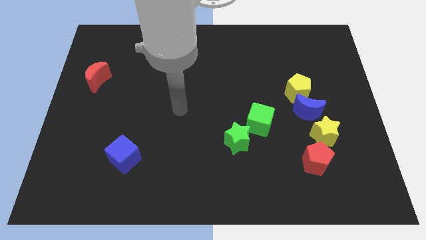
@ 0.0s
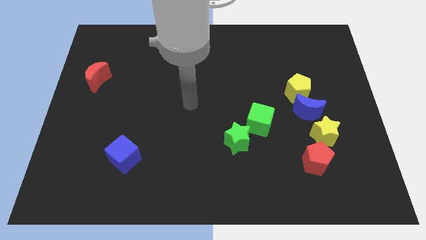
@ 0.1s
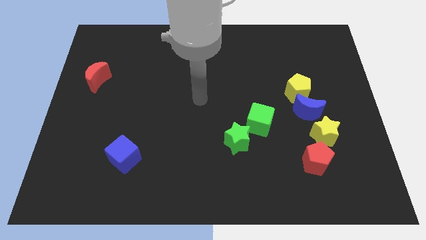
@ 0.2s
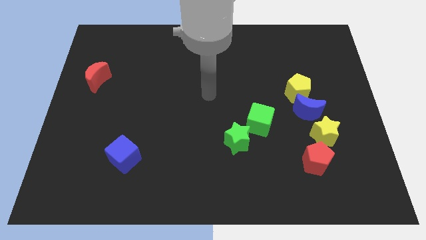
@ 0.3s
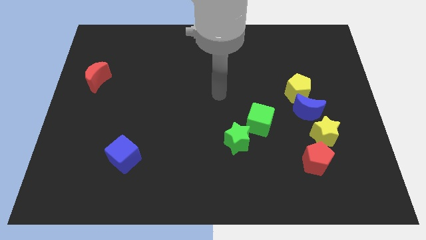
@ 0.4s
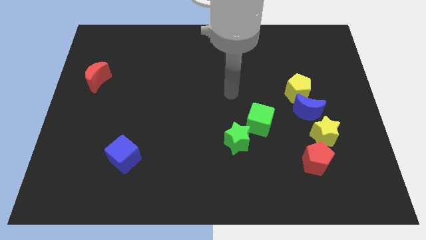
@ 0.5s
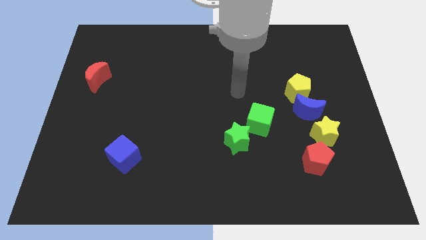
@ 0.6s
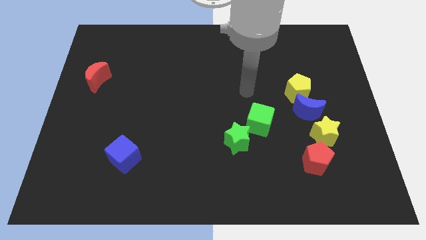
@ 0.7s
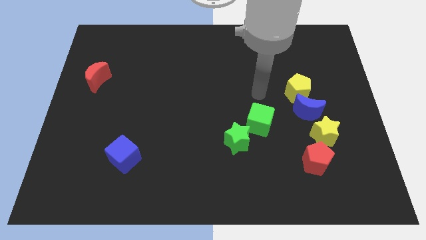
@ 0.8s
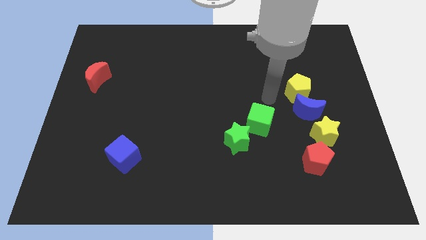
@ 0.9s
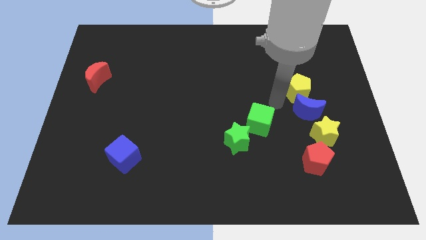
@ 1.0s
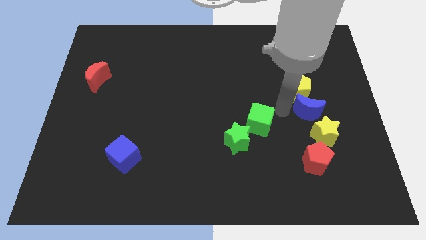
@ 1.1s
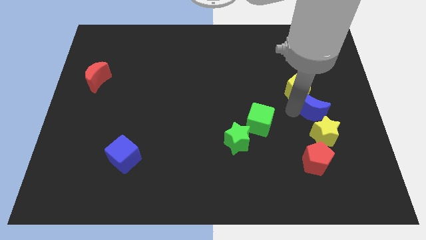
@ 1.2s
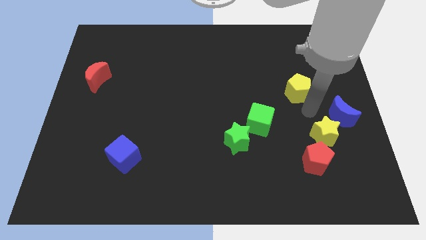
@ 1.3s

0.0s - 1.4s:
pull the yellow pentagon apart from the blue moon

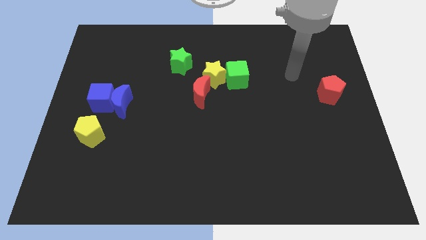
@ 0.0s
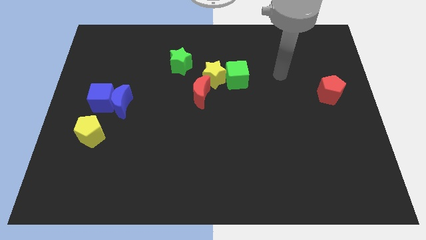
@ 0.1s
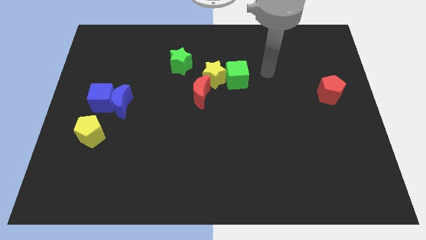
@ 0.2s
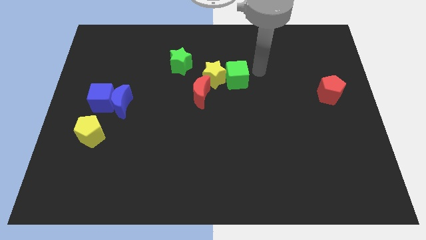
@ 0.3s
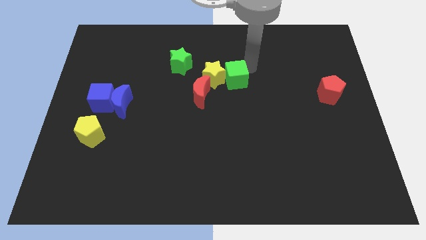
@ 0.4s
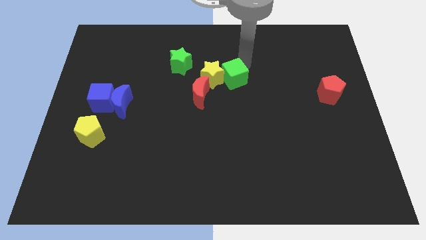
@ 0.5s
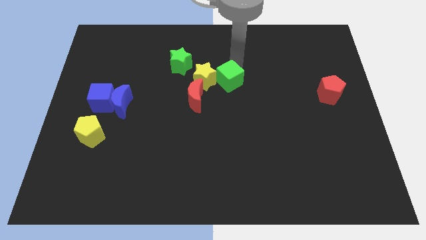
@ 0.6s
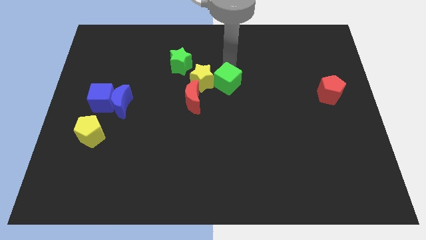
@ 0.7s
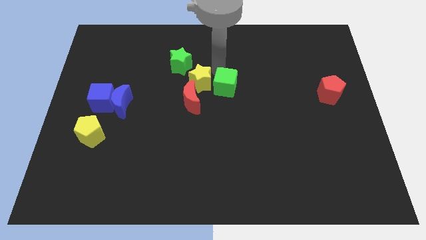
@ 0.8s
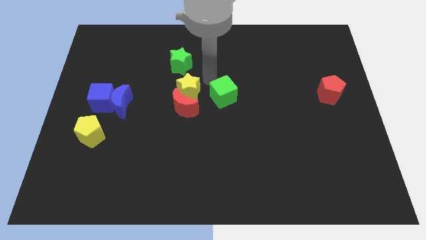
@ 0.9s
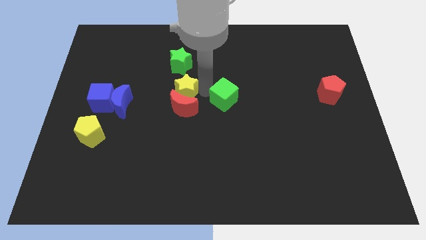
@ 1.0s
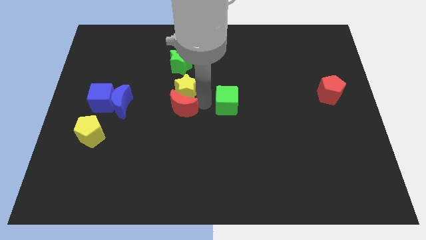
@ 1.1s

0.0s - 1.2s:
pull the green cube apart from the yellow star

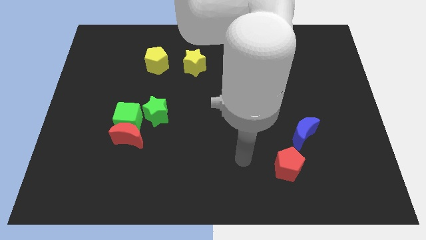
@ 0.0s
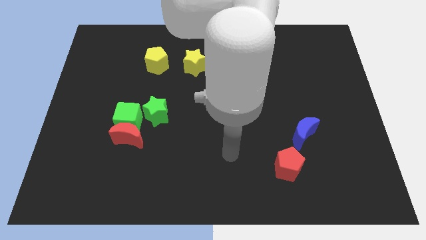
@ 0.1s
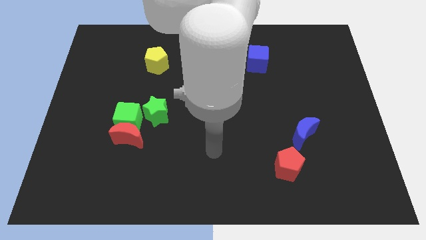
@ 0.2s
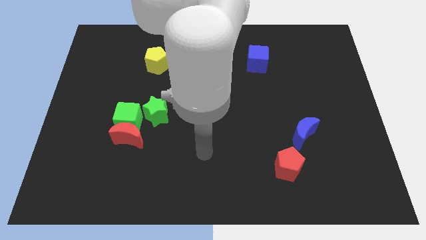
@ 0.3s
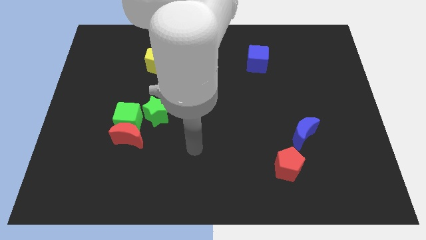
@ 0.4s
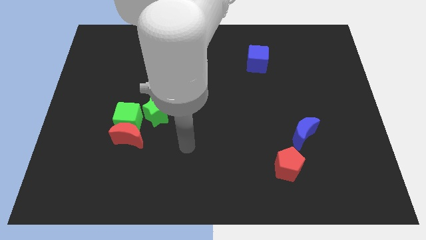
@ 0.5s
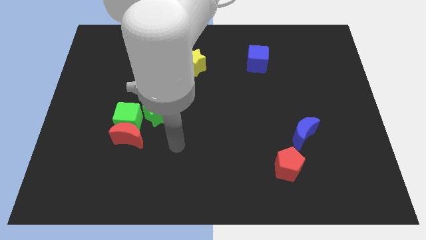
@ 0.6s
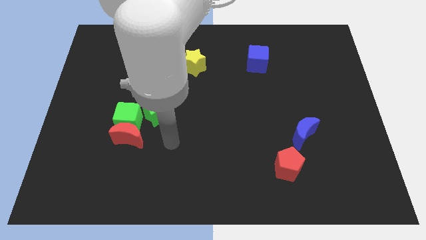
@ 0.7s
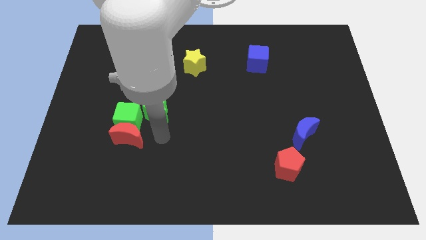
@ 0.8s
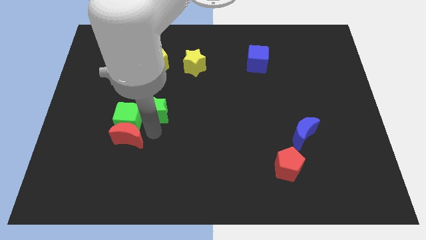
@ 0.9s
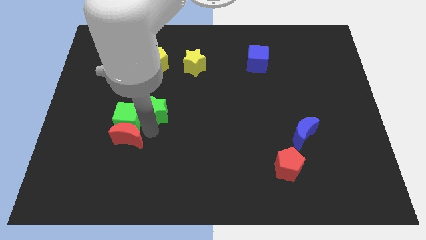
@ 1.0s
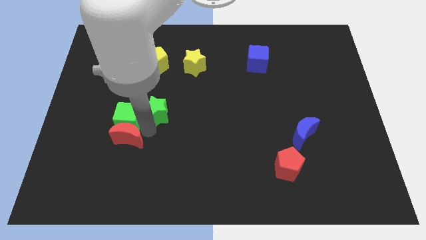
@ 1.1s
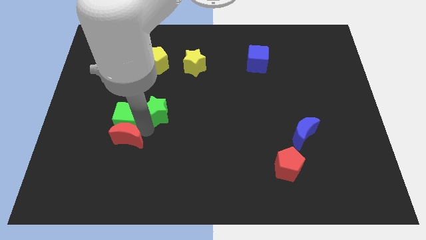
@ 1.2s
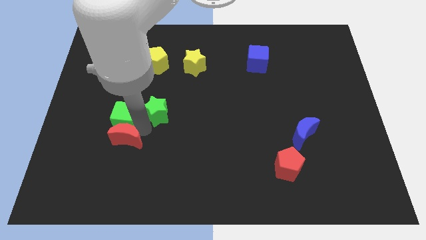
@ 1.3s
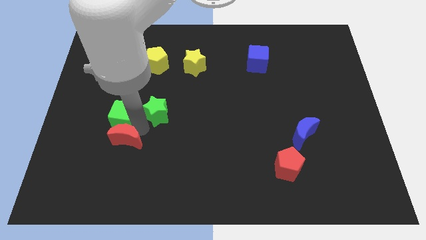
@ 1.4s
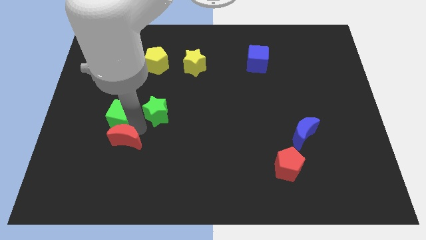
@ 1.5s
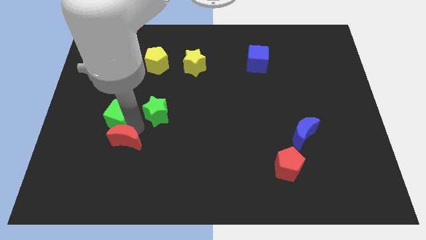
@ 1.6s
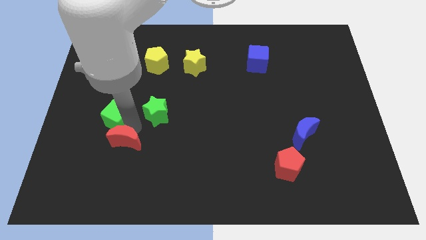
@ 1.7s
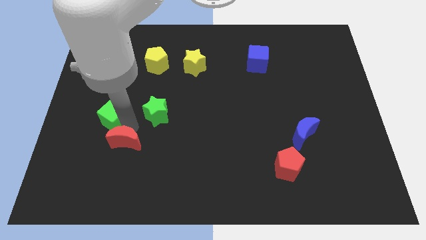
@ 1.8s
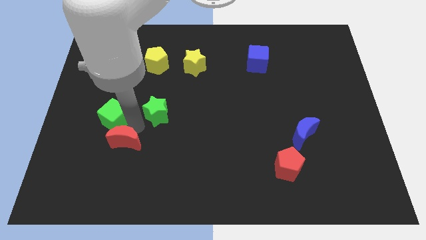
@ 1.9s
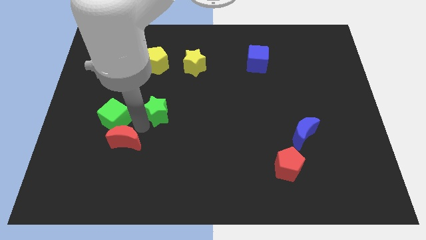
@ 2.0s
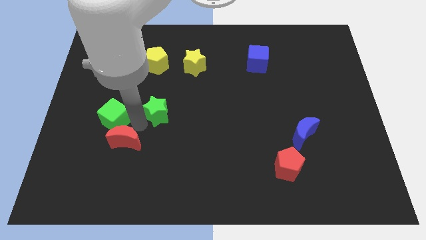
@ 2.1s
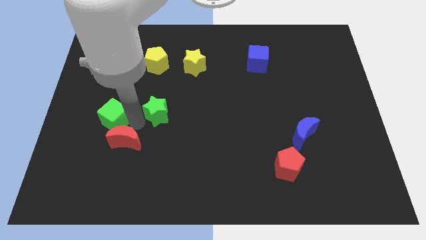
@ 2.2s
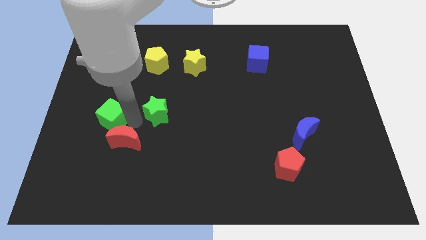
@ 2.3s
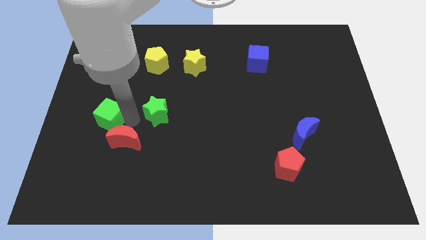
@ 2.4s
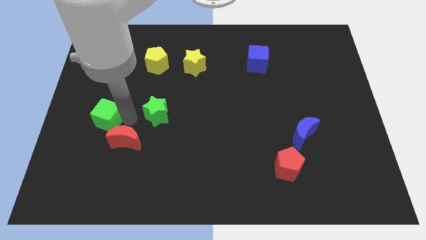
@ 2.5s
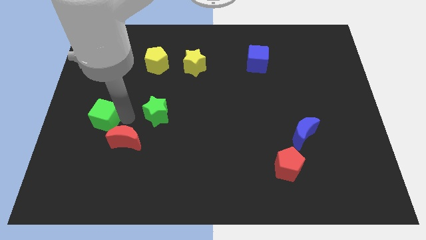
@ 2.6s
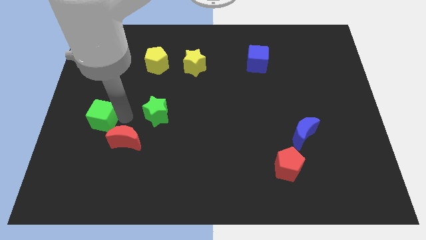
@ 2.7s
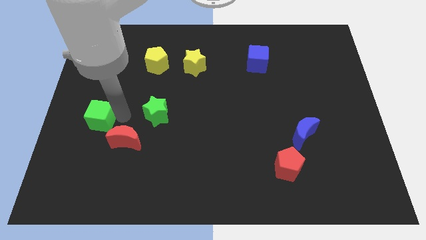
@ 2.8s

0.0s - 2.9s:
move the green cube away from the red moon and green star

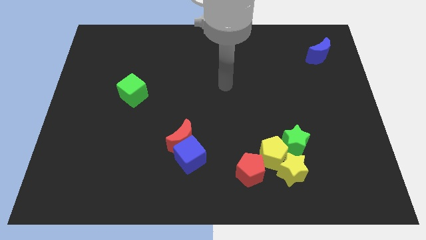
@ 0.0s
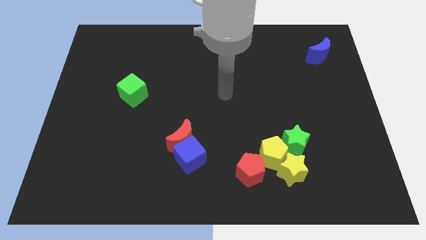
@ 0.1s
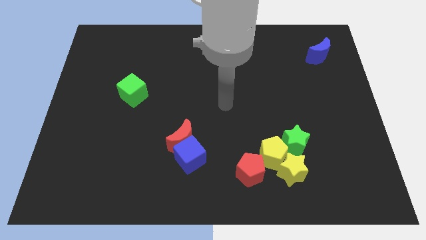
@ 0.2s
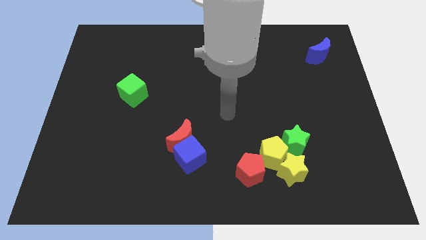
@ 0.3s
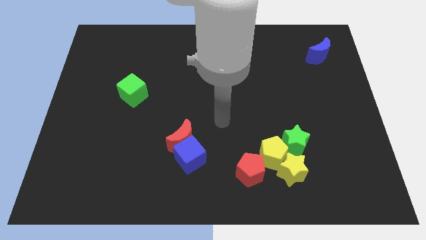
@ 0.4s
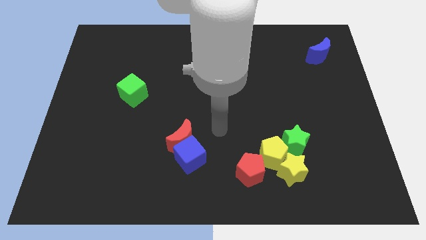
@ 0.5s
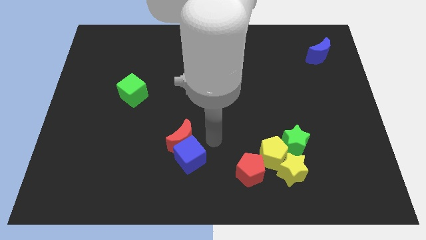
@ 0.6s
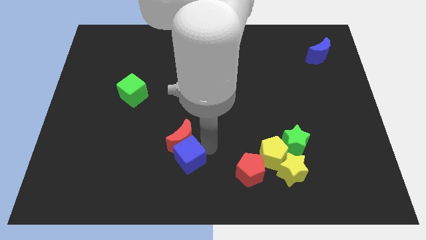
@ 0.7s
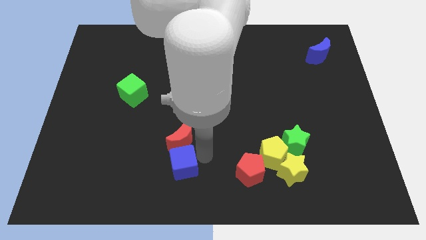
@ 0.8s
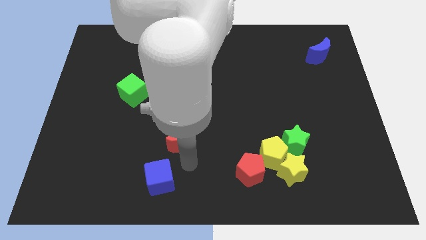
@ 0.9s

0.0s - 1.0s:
move the red moon away from the blue cube

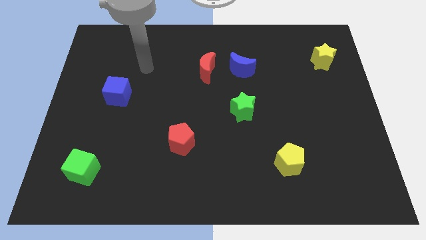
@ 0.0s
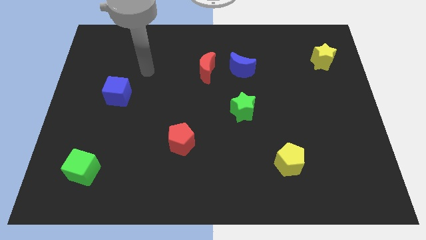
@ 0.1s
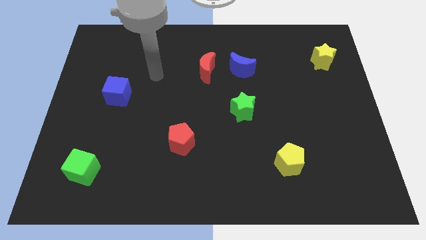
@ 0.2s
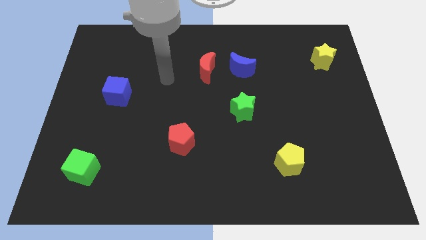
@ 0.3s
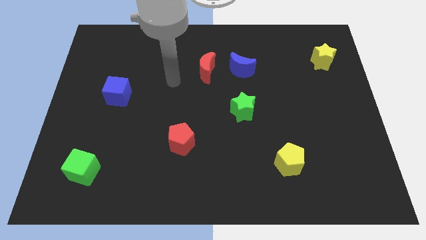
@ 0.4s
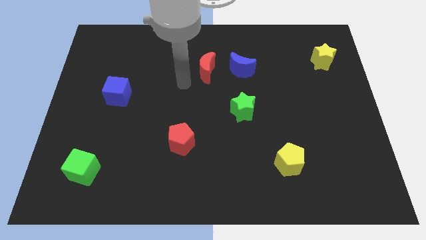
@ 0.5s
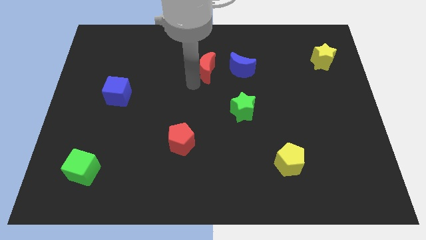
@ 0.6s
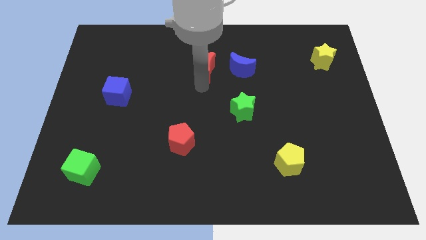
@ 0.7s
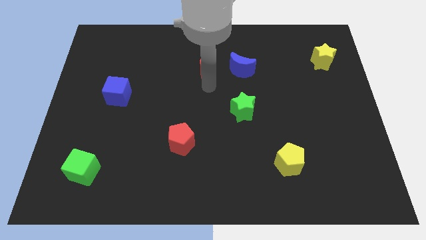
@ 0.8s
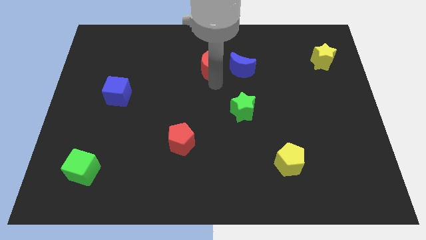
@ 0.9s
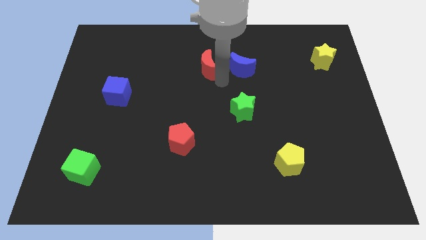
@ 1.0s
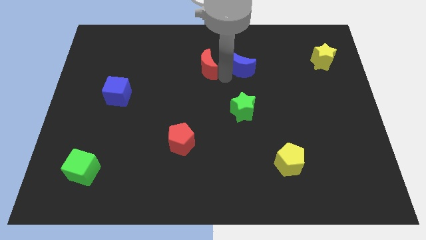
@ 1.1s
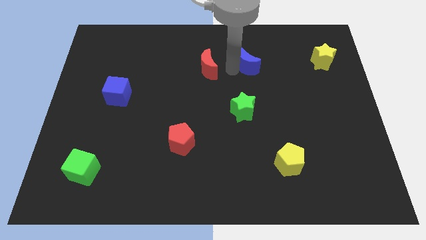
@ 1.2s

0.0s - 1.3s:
pull the red moon apart from the blue moon

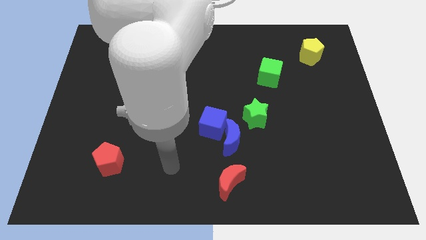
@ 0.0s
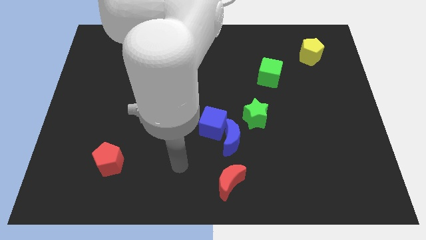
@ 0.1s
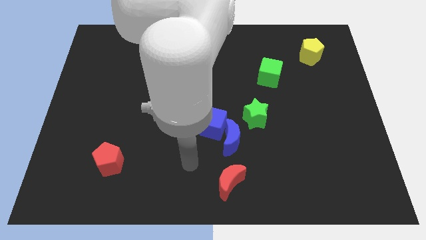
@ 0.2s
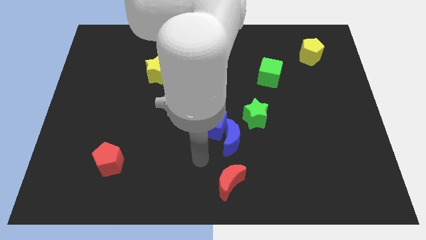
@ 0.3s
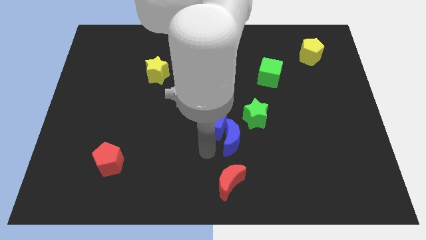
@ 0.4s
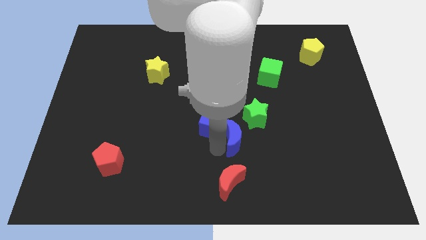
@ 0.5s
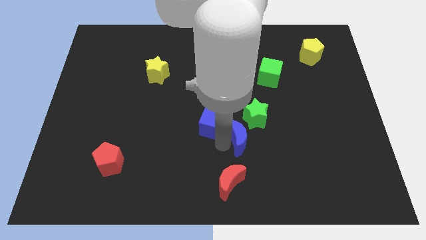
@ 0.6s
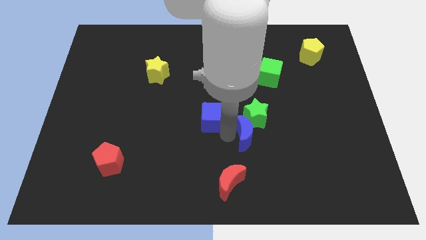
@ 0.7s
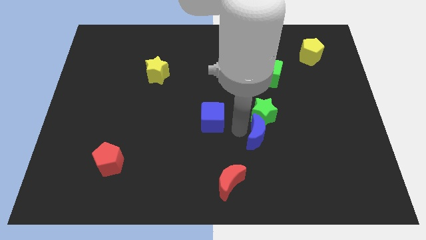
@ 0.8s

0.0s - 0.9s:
move the blue cube away from the blue moon and green star

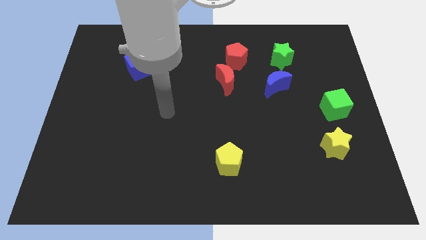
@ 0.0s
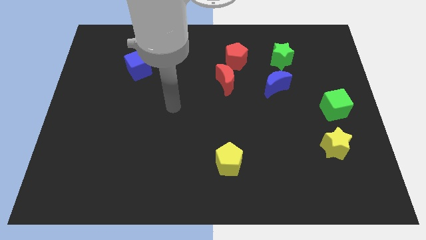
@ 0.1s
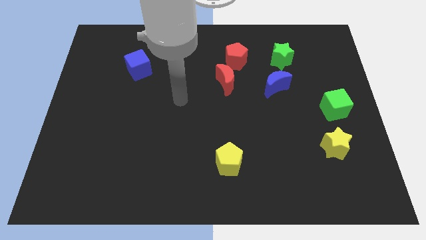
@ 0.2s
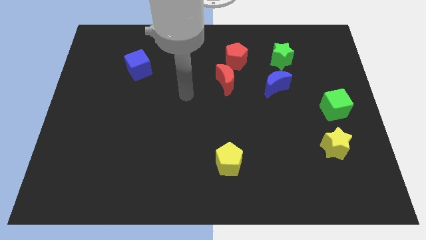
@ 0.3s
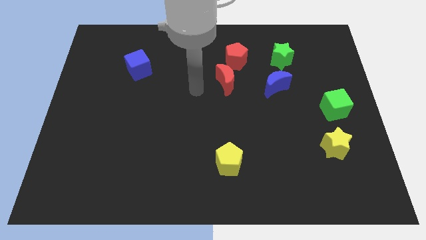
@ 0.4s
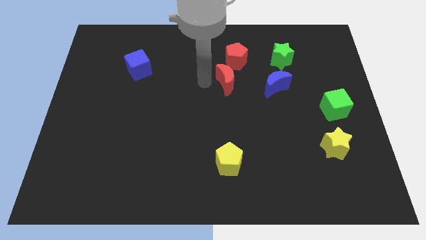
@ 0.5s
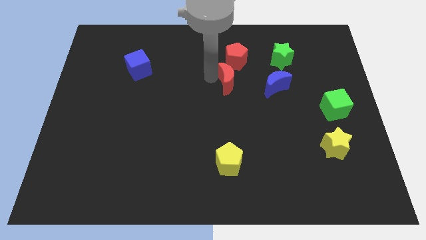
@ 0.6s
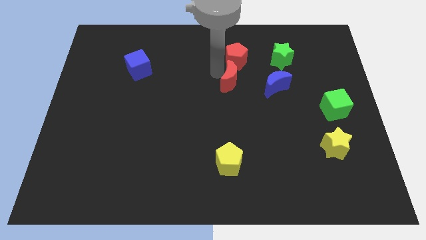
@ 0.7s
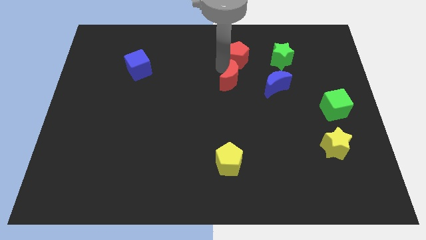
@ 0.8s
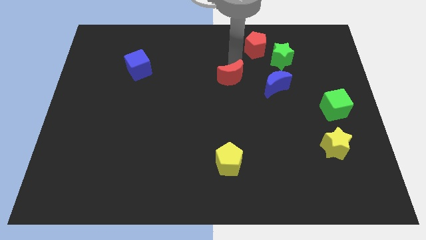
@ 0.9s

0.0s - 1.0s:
pull the red moon apart from the red pentagon
